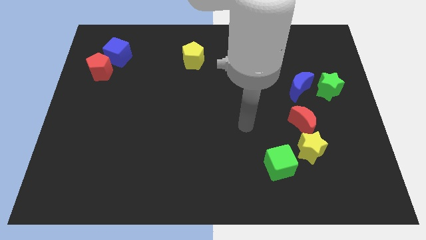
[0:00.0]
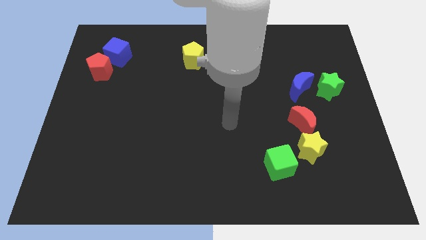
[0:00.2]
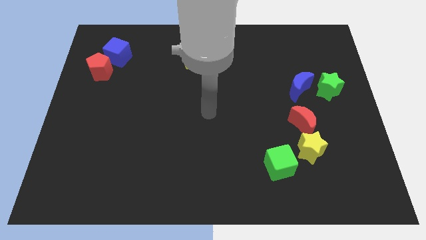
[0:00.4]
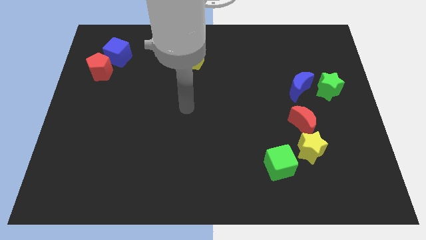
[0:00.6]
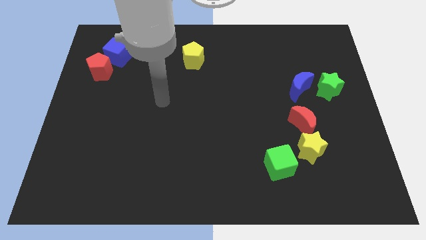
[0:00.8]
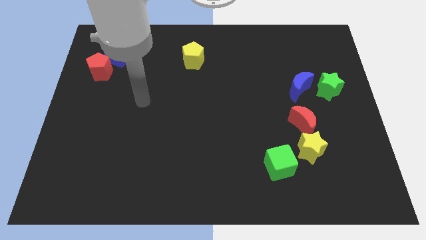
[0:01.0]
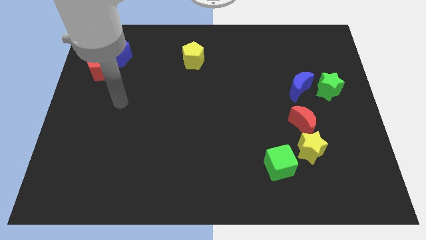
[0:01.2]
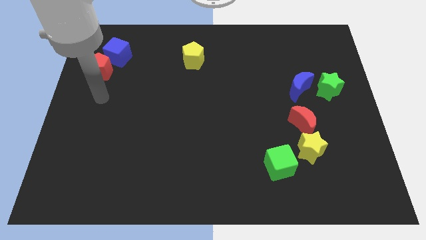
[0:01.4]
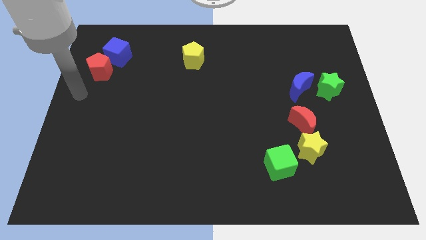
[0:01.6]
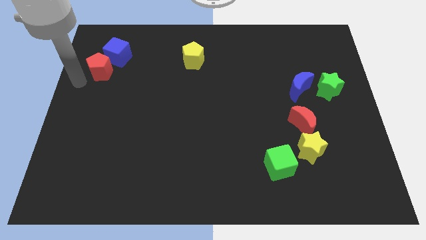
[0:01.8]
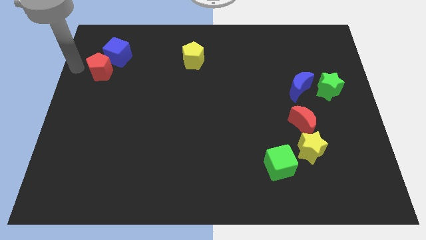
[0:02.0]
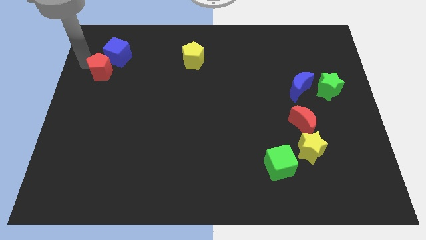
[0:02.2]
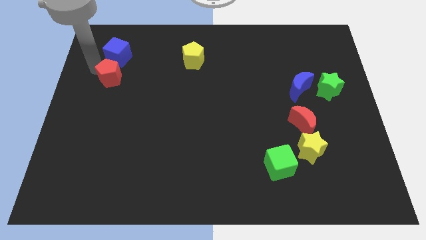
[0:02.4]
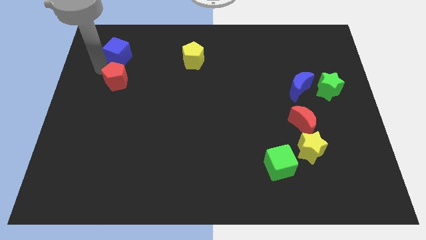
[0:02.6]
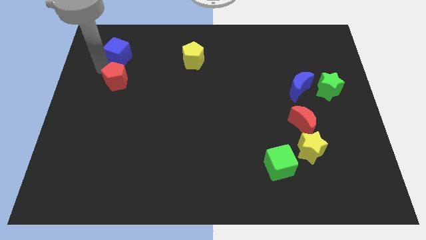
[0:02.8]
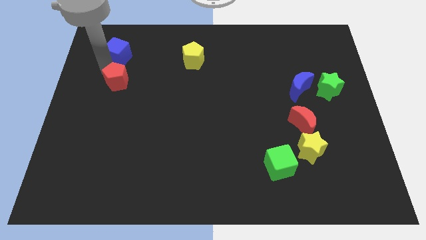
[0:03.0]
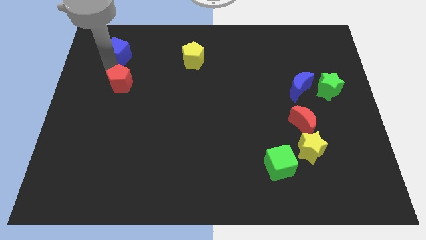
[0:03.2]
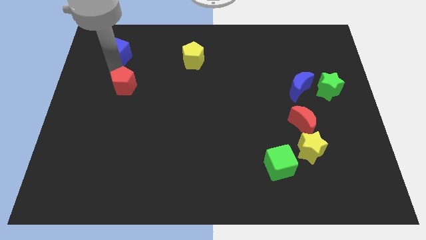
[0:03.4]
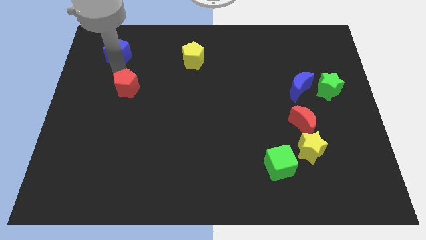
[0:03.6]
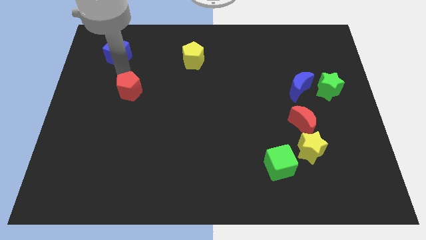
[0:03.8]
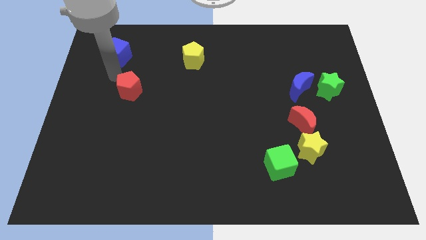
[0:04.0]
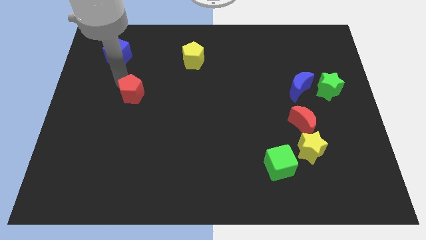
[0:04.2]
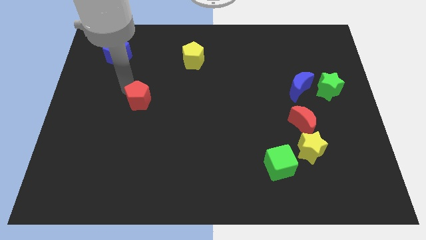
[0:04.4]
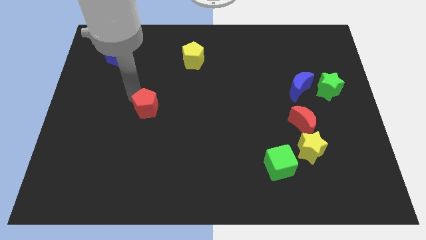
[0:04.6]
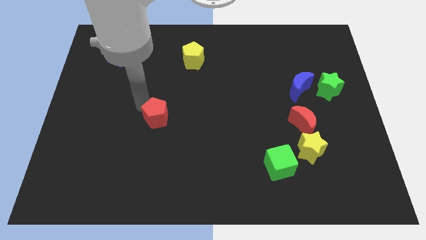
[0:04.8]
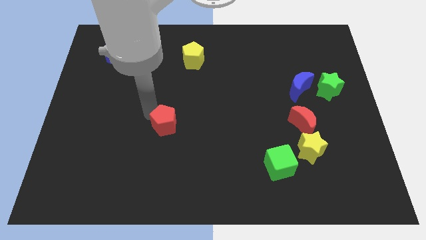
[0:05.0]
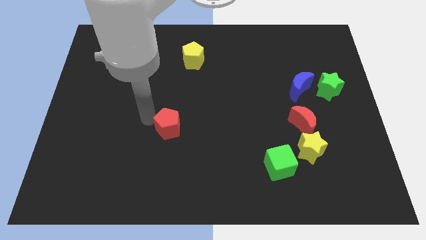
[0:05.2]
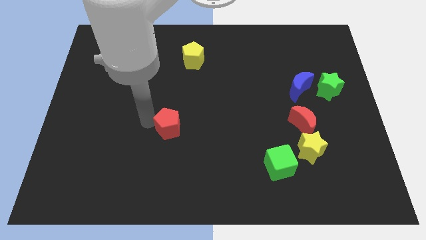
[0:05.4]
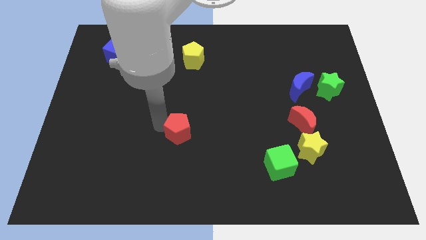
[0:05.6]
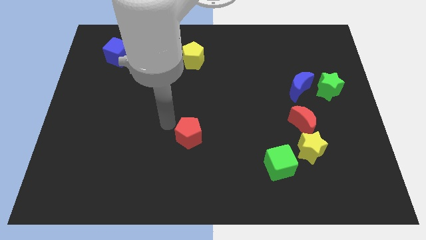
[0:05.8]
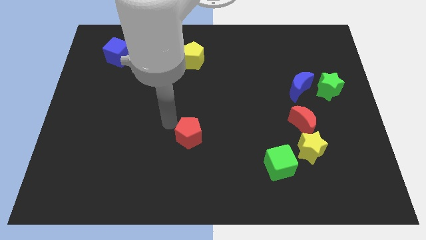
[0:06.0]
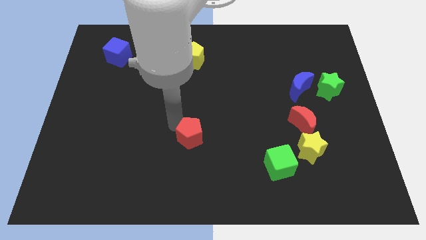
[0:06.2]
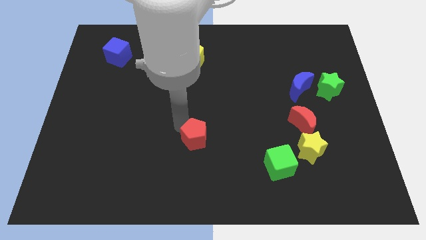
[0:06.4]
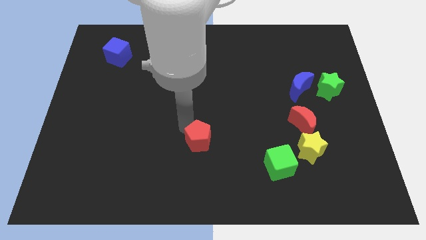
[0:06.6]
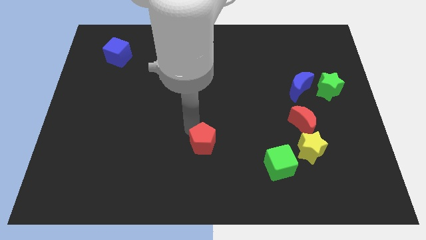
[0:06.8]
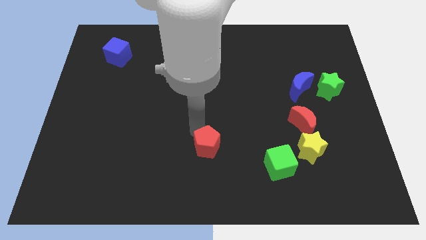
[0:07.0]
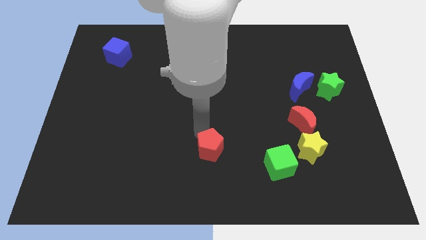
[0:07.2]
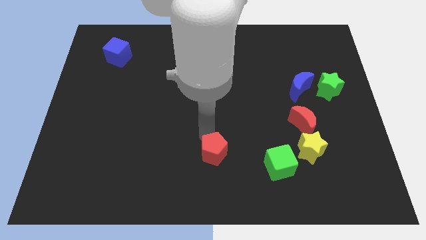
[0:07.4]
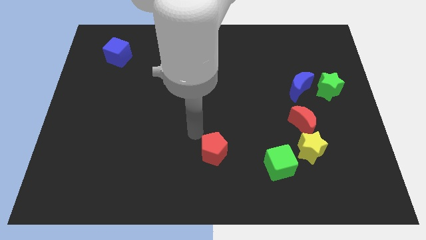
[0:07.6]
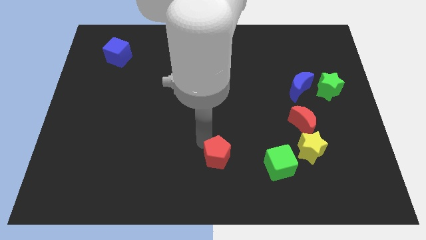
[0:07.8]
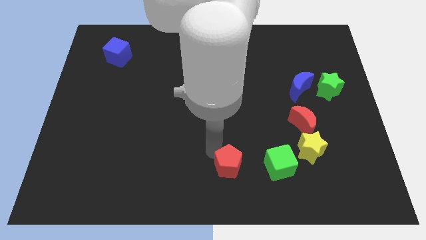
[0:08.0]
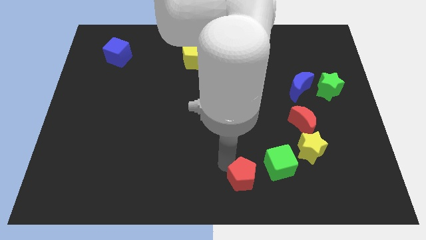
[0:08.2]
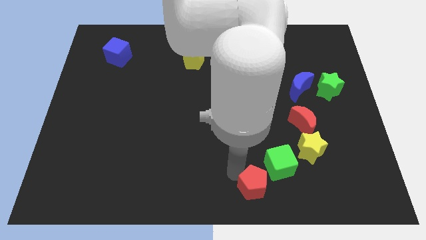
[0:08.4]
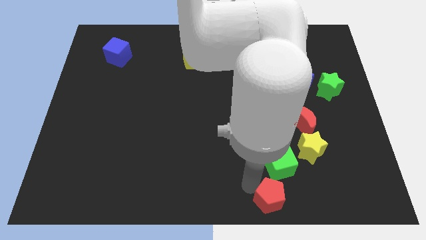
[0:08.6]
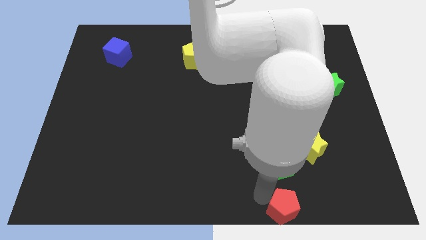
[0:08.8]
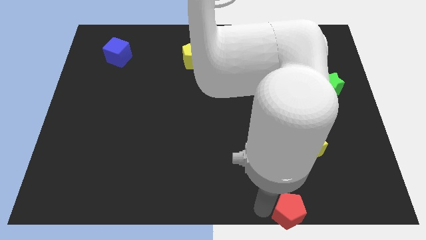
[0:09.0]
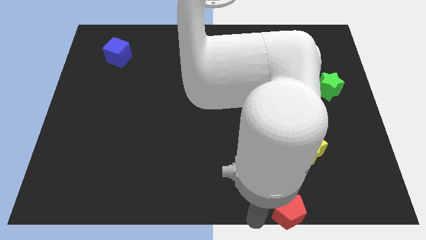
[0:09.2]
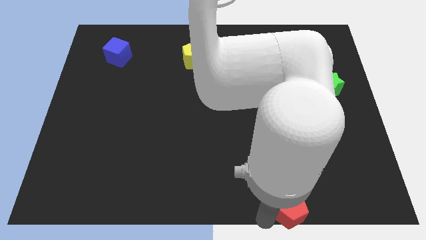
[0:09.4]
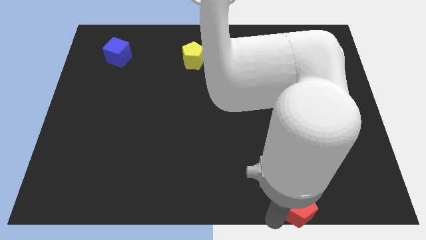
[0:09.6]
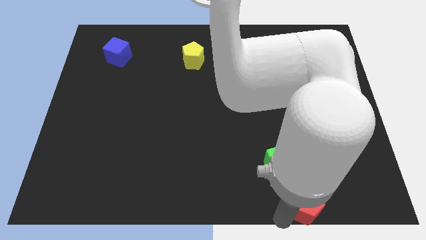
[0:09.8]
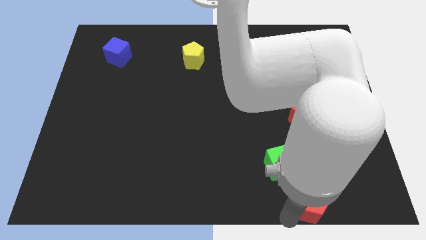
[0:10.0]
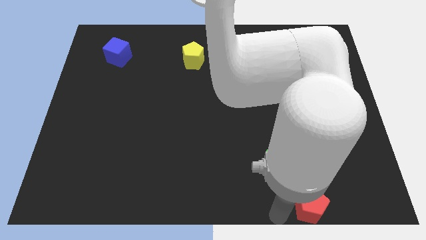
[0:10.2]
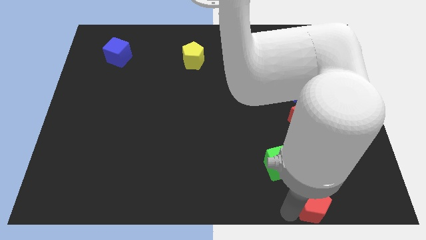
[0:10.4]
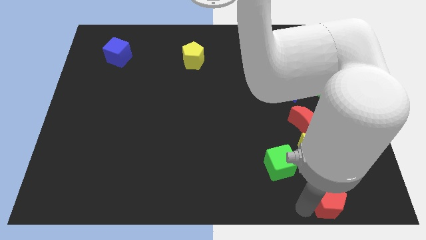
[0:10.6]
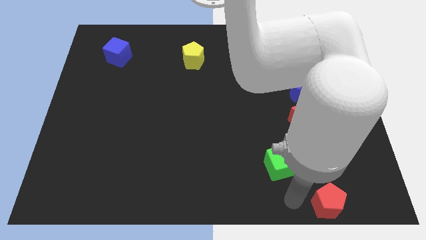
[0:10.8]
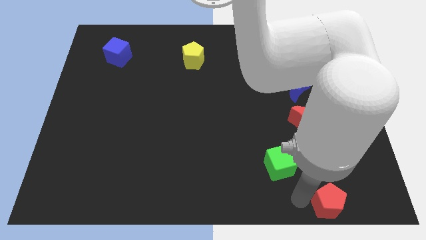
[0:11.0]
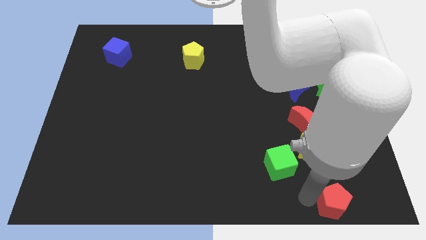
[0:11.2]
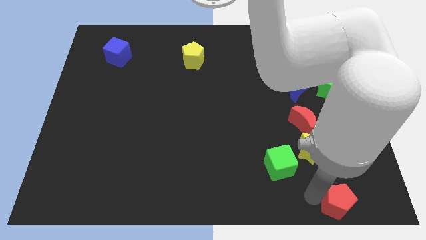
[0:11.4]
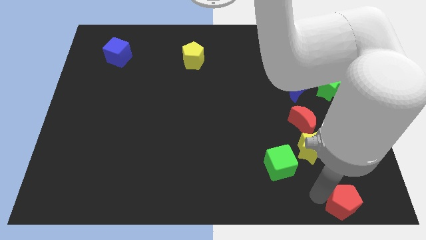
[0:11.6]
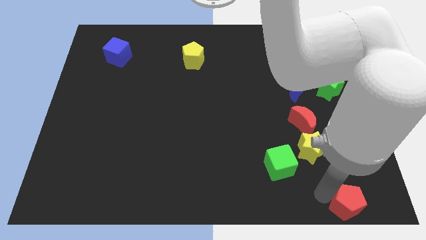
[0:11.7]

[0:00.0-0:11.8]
move the red pentagon to the bottom right corner
